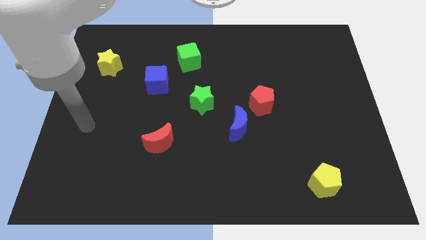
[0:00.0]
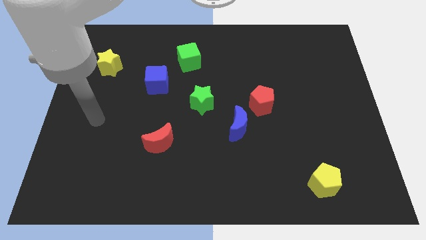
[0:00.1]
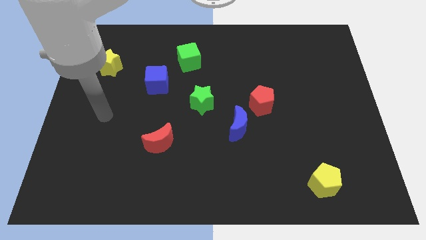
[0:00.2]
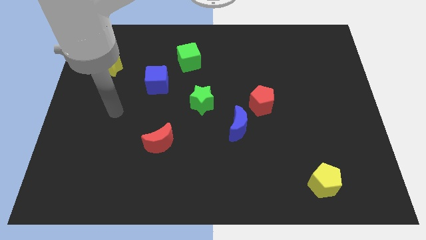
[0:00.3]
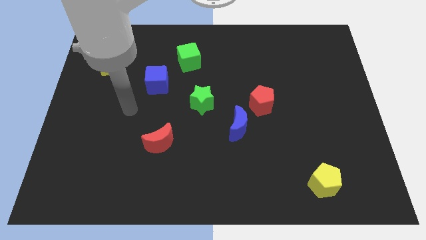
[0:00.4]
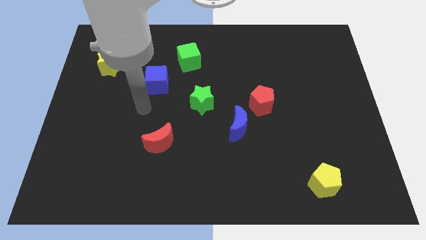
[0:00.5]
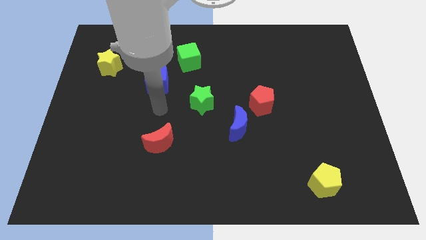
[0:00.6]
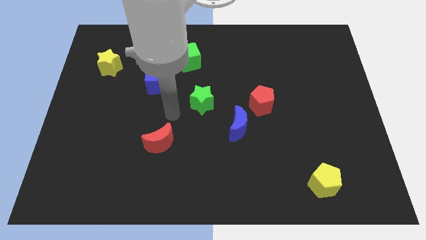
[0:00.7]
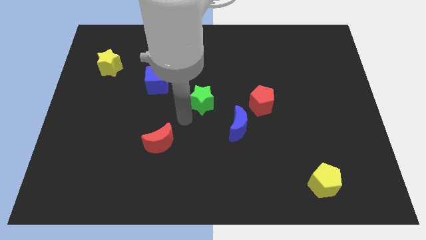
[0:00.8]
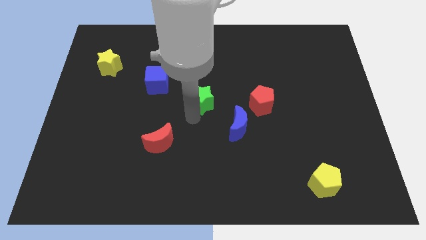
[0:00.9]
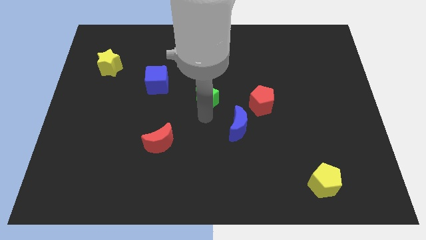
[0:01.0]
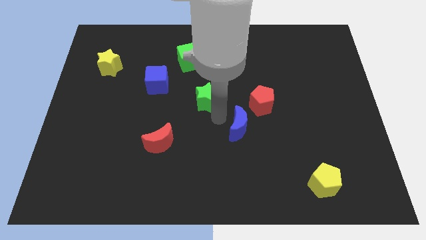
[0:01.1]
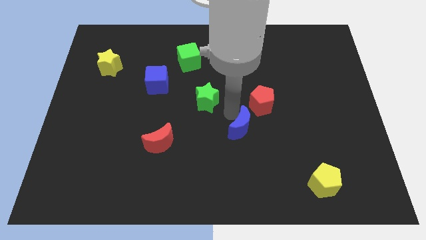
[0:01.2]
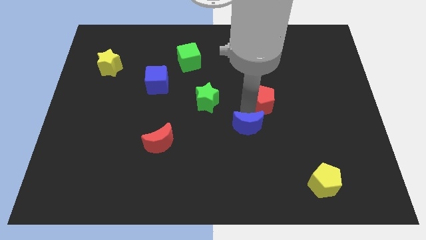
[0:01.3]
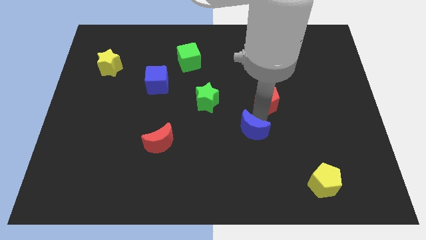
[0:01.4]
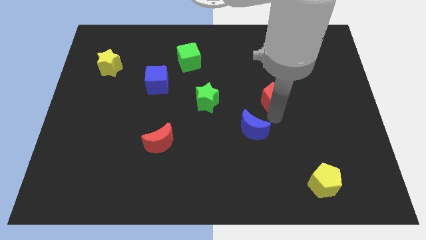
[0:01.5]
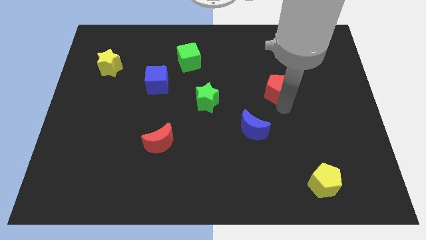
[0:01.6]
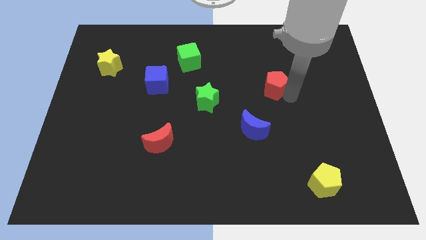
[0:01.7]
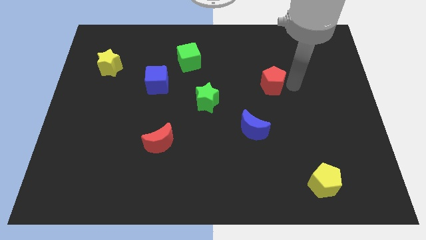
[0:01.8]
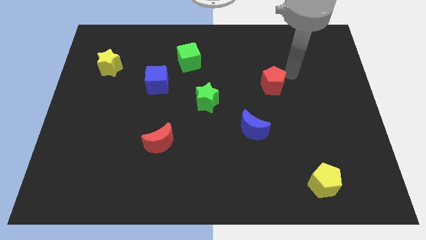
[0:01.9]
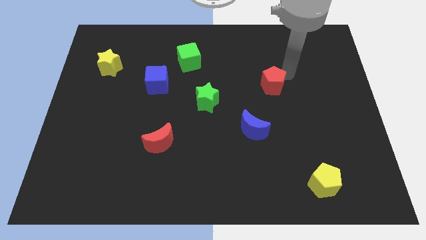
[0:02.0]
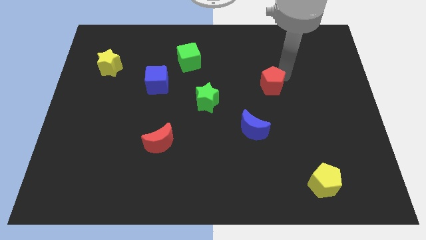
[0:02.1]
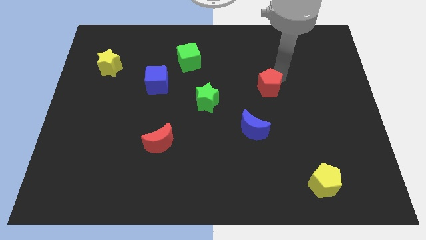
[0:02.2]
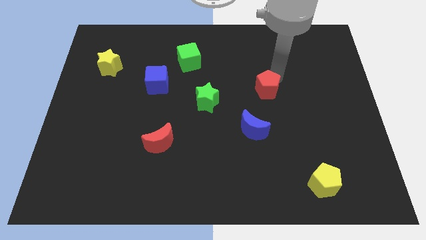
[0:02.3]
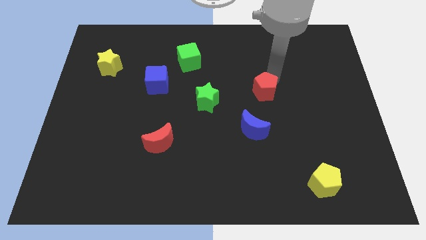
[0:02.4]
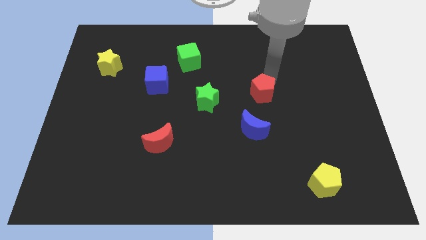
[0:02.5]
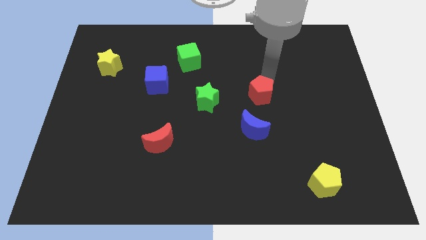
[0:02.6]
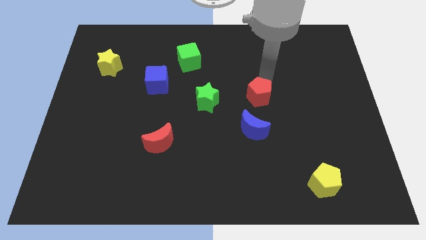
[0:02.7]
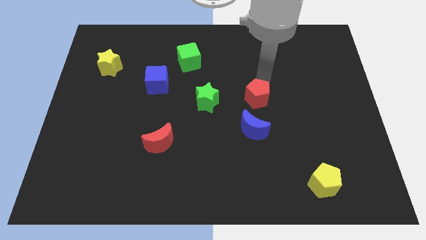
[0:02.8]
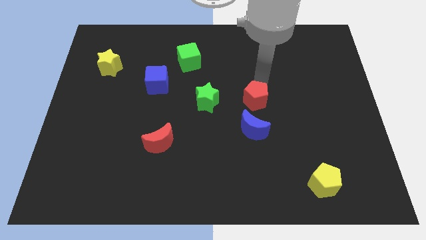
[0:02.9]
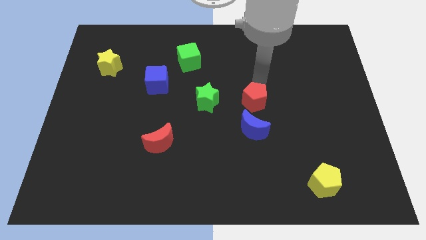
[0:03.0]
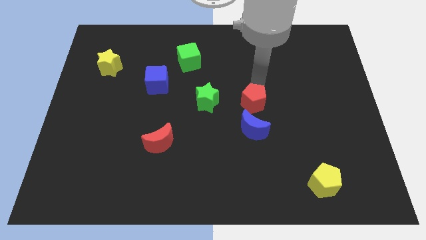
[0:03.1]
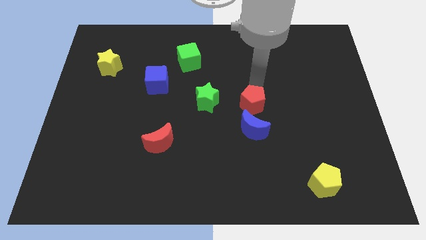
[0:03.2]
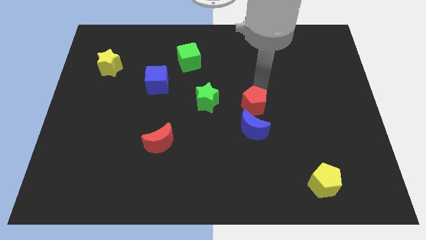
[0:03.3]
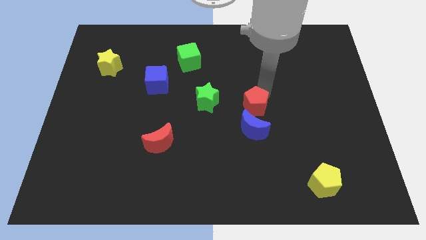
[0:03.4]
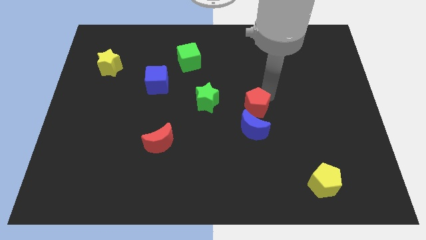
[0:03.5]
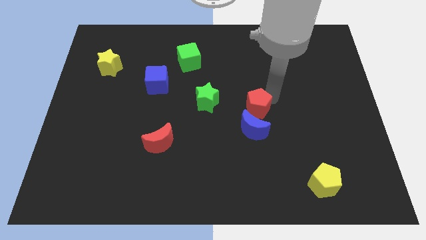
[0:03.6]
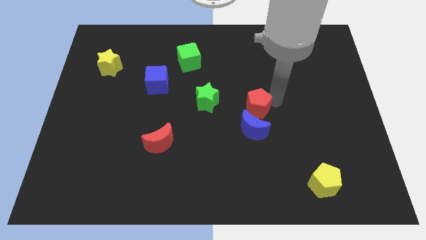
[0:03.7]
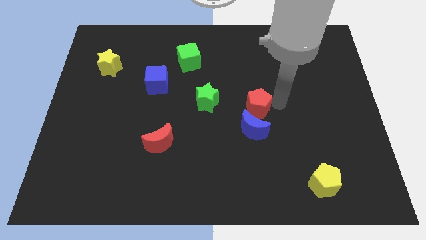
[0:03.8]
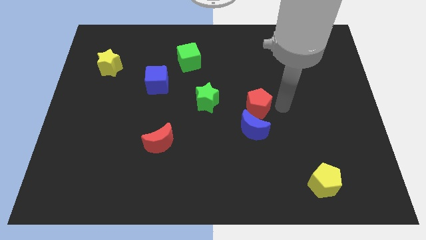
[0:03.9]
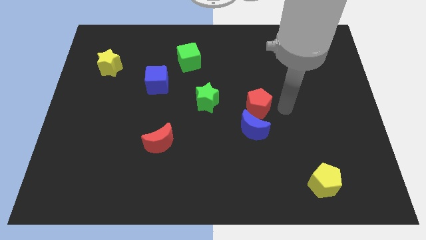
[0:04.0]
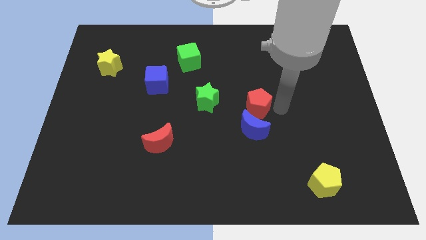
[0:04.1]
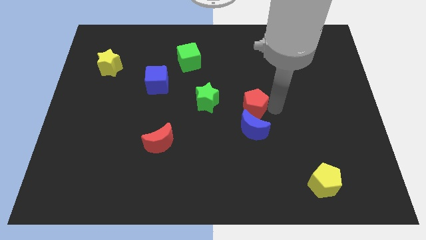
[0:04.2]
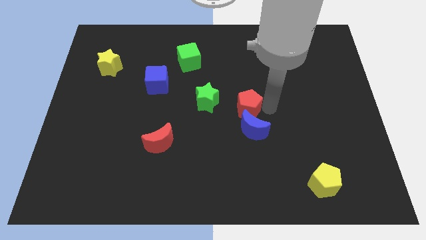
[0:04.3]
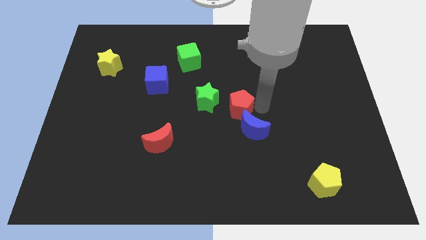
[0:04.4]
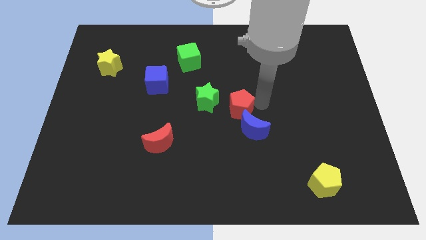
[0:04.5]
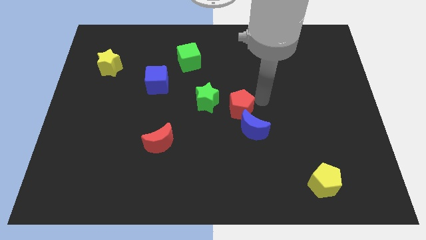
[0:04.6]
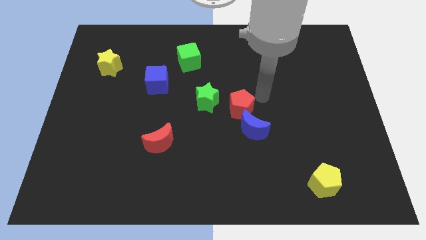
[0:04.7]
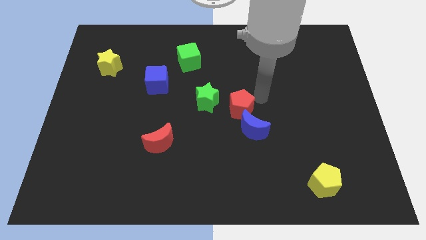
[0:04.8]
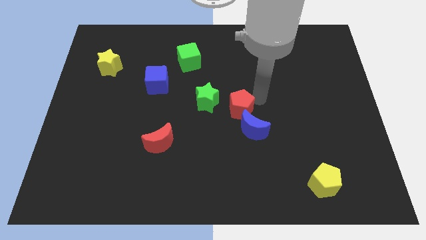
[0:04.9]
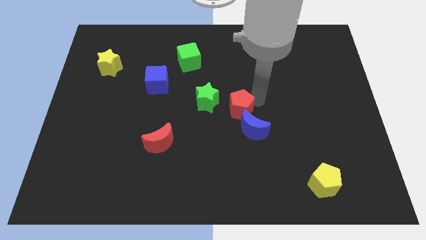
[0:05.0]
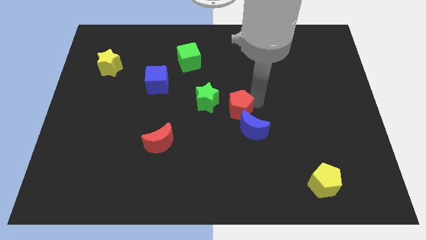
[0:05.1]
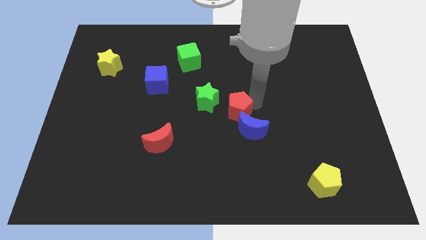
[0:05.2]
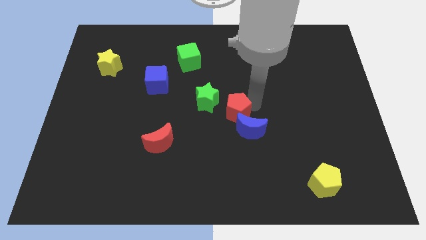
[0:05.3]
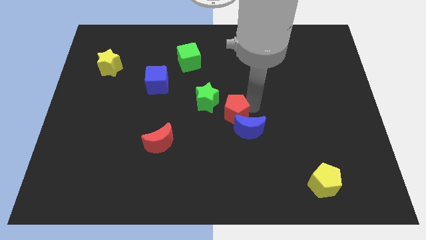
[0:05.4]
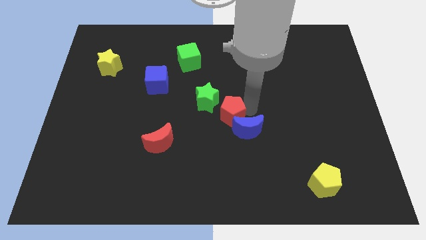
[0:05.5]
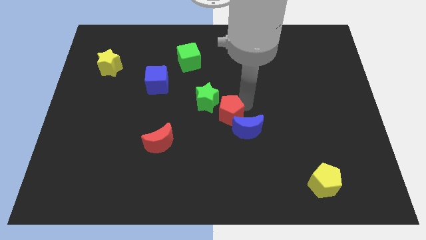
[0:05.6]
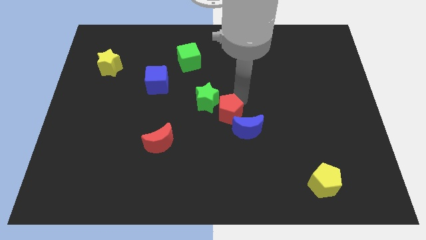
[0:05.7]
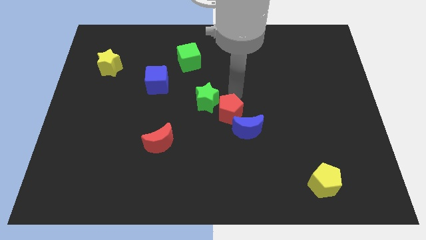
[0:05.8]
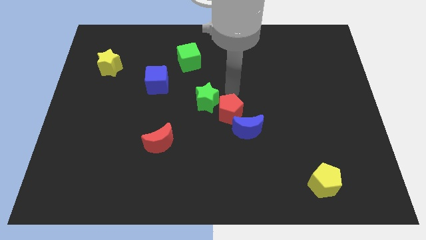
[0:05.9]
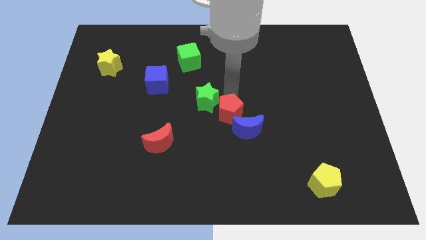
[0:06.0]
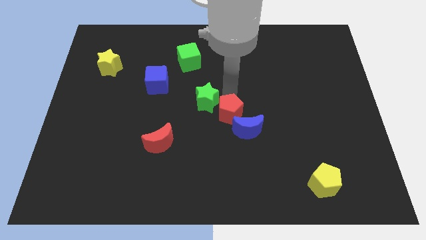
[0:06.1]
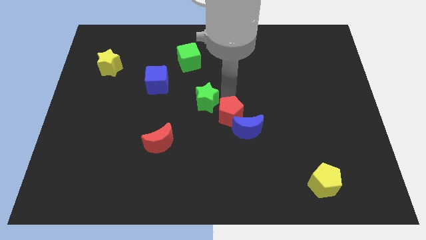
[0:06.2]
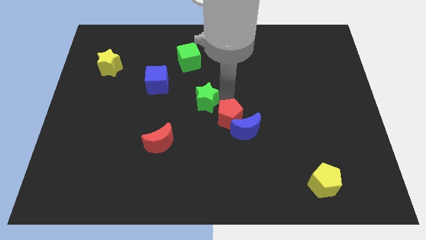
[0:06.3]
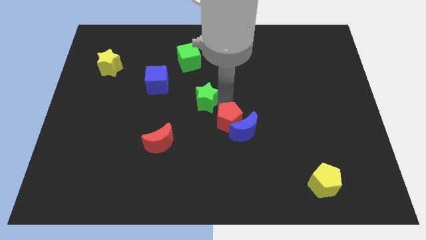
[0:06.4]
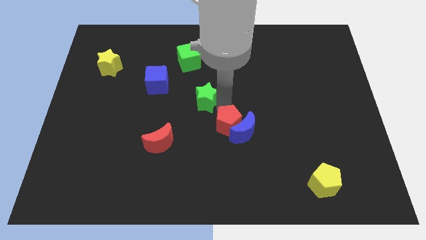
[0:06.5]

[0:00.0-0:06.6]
push the red pentagon to the bottom left of the blue moon

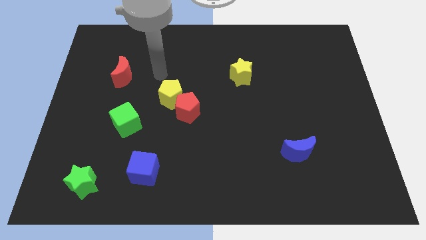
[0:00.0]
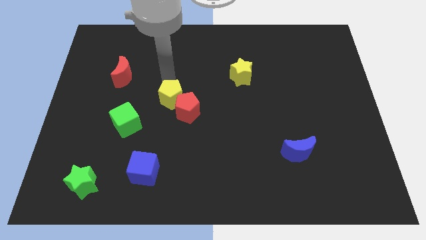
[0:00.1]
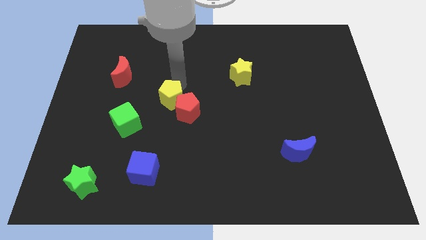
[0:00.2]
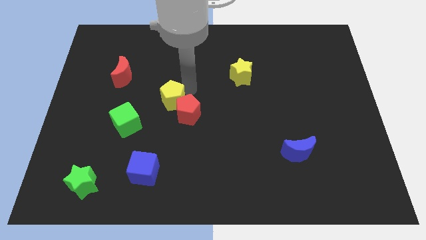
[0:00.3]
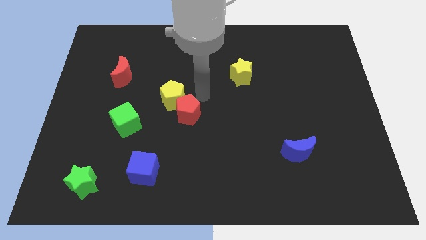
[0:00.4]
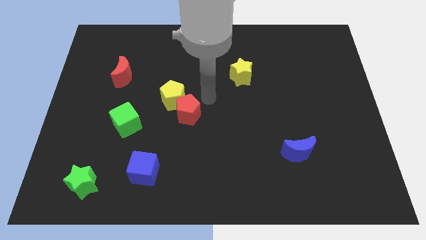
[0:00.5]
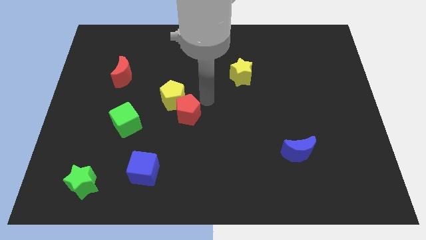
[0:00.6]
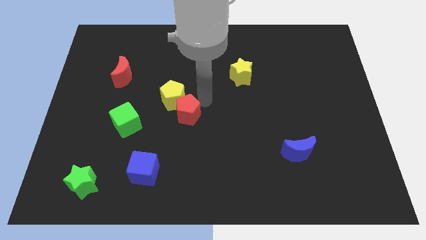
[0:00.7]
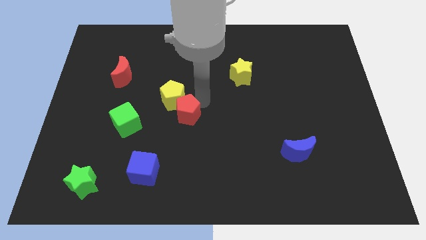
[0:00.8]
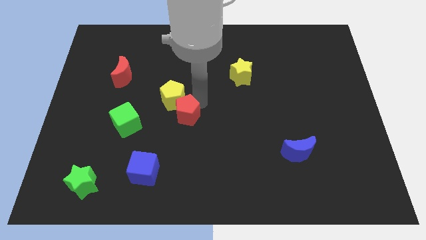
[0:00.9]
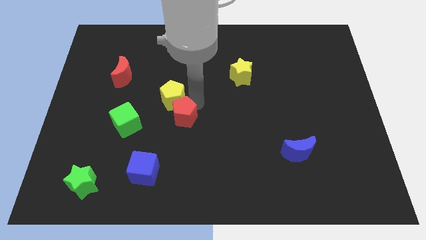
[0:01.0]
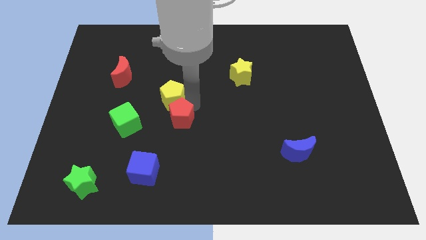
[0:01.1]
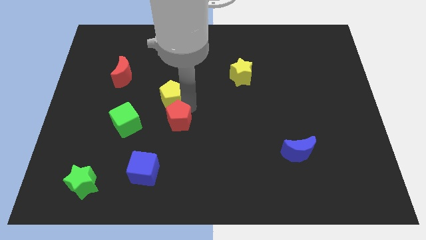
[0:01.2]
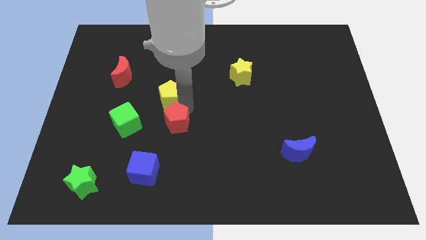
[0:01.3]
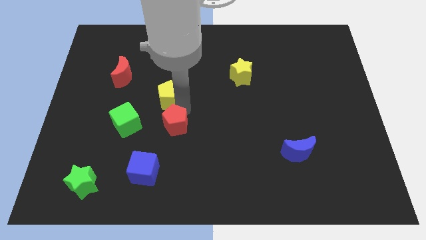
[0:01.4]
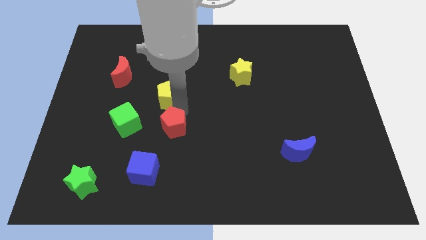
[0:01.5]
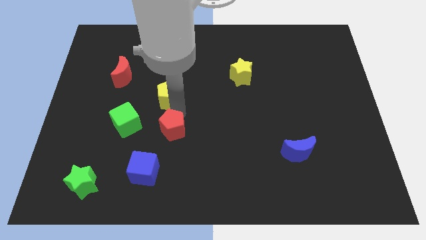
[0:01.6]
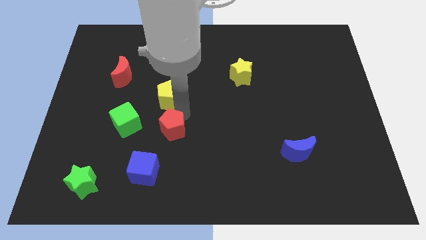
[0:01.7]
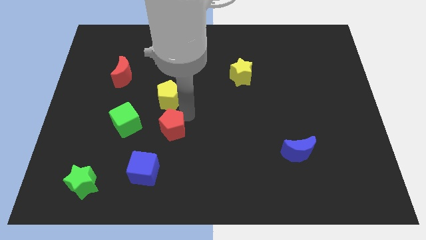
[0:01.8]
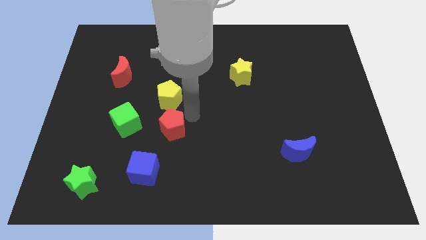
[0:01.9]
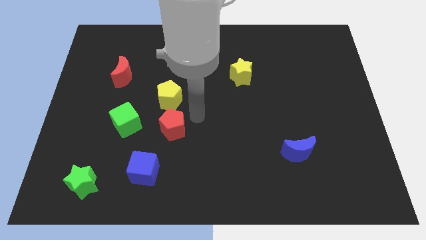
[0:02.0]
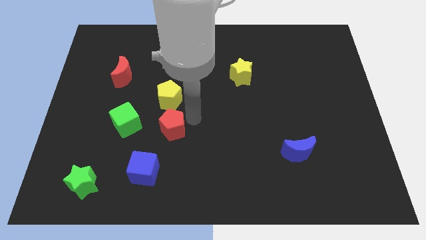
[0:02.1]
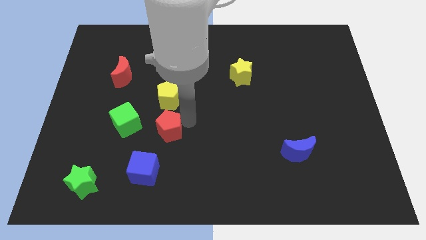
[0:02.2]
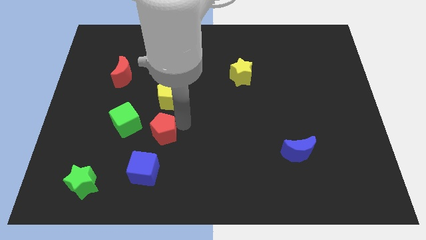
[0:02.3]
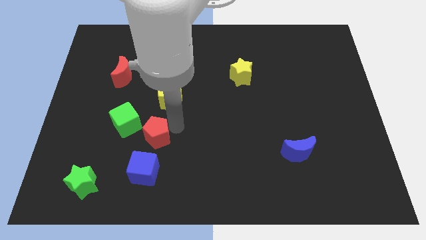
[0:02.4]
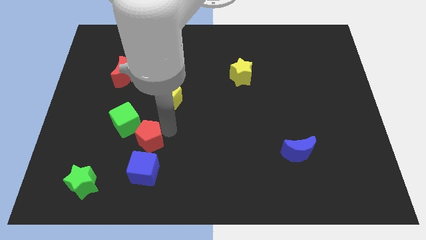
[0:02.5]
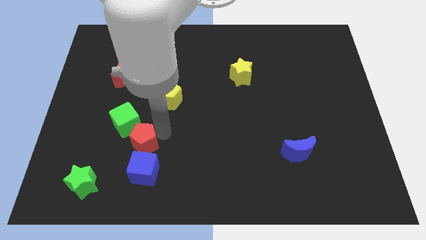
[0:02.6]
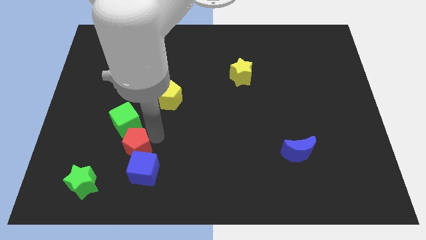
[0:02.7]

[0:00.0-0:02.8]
push the red pentagon diagonally up and to the right of the green star
